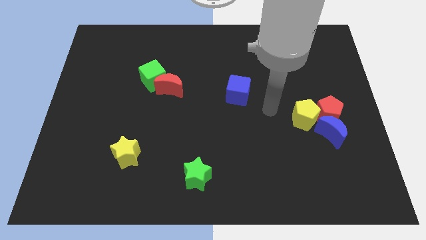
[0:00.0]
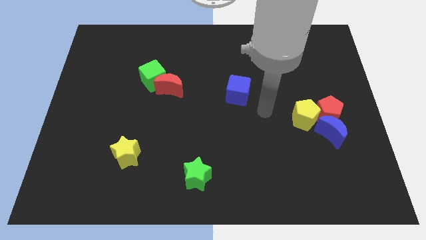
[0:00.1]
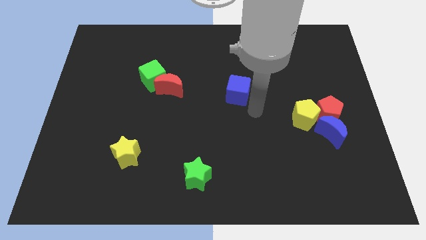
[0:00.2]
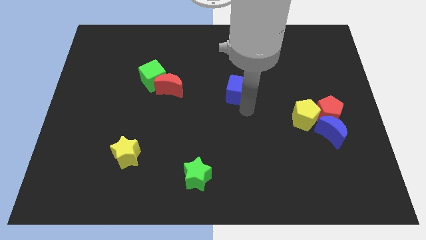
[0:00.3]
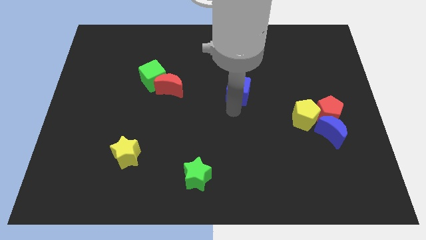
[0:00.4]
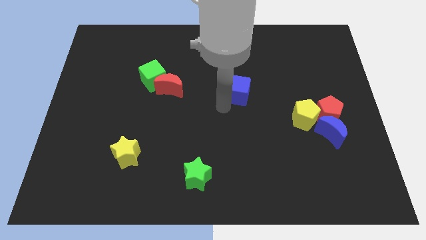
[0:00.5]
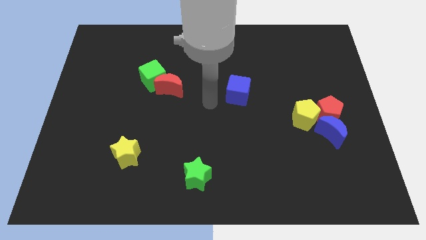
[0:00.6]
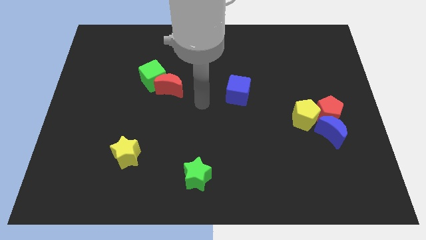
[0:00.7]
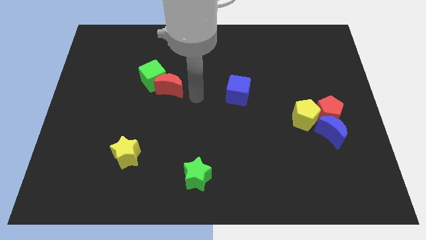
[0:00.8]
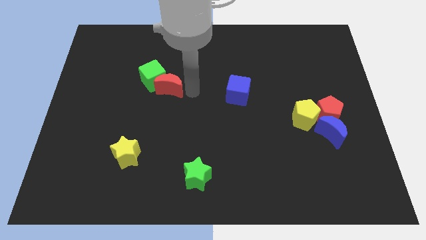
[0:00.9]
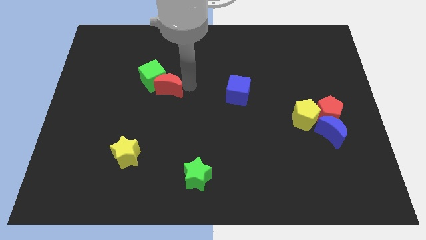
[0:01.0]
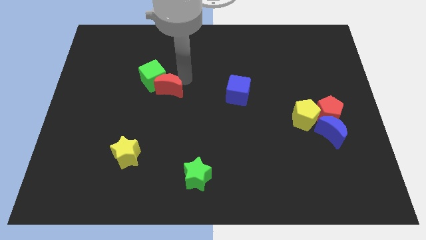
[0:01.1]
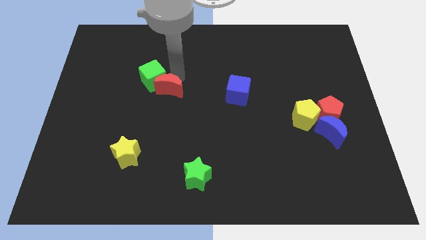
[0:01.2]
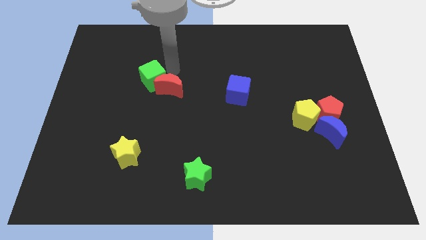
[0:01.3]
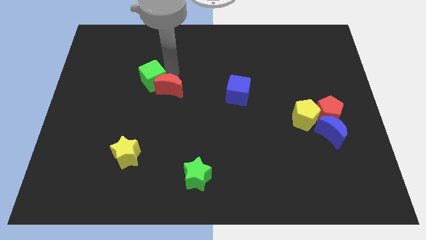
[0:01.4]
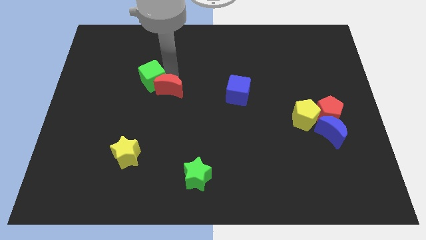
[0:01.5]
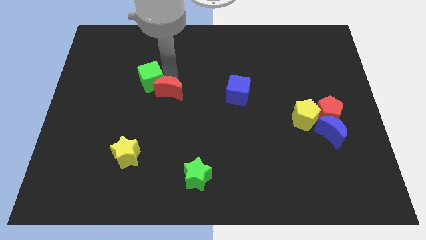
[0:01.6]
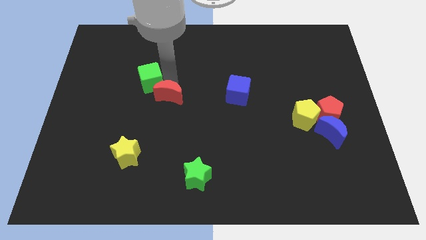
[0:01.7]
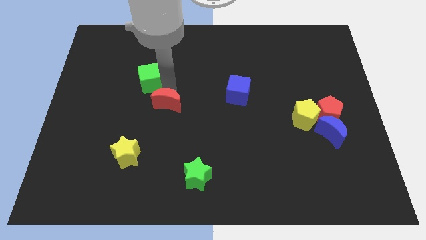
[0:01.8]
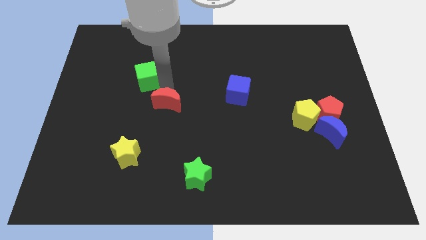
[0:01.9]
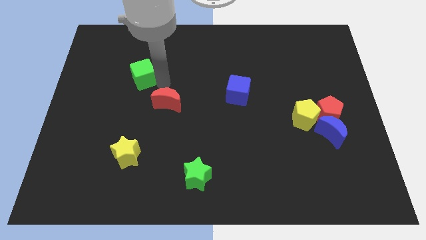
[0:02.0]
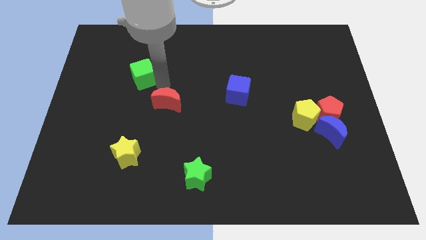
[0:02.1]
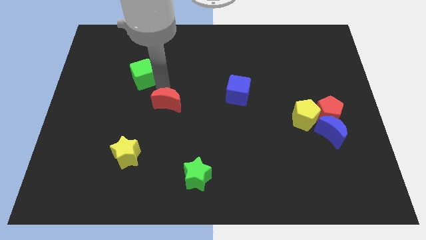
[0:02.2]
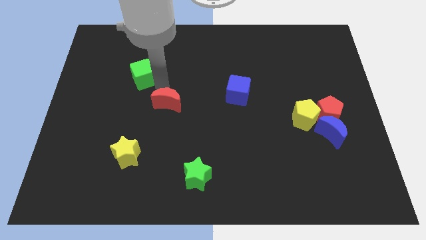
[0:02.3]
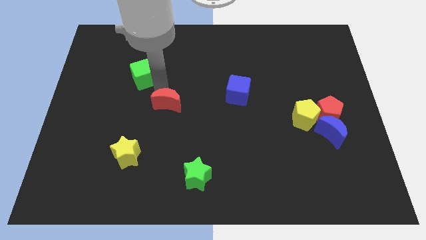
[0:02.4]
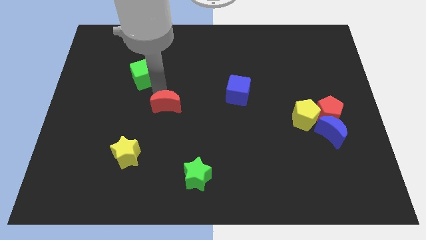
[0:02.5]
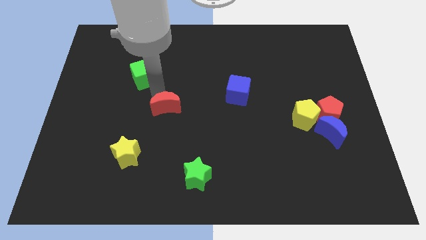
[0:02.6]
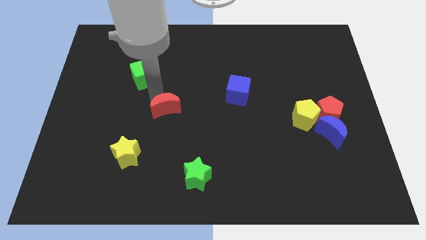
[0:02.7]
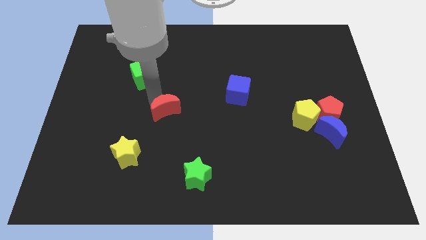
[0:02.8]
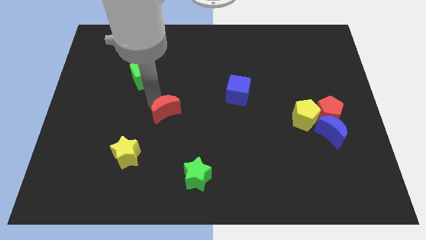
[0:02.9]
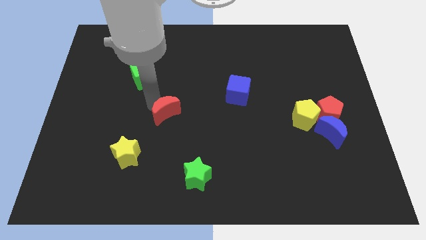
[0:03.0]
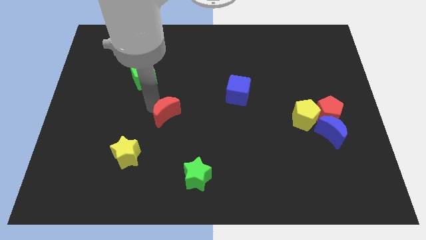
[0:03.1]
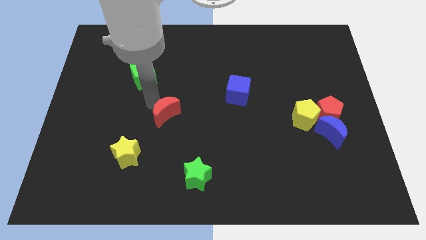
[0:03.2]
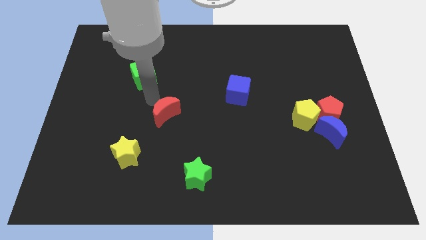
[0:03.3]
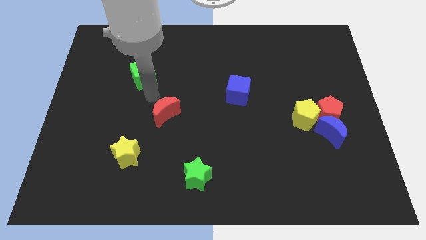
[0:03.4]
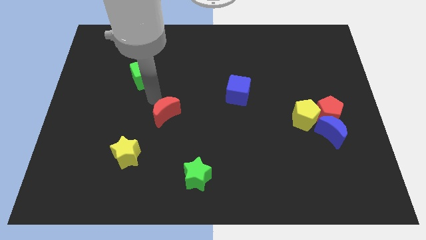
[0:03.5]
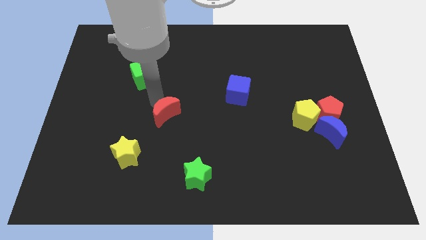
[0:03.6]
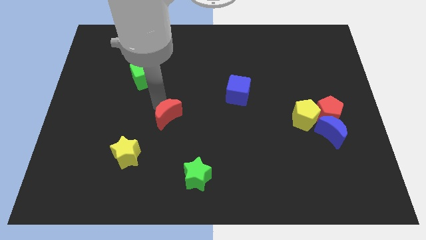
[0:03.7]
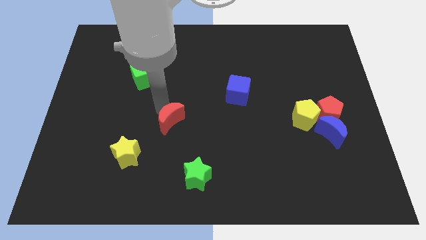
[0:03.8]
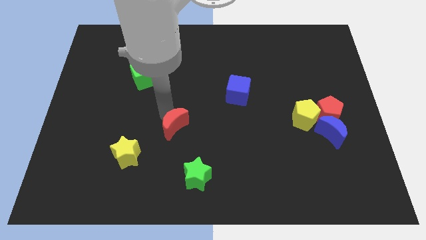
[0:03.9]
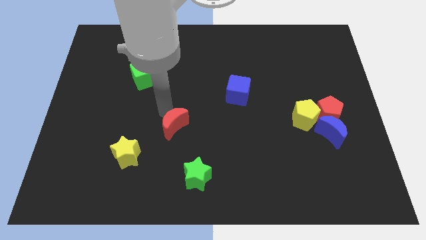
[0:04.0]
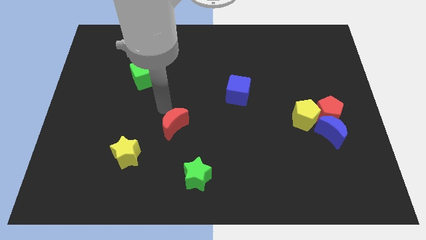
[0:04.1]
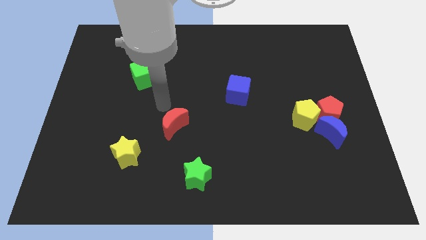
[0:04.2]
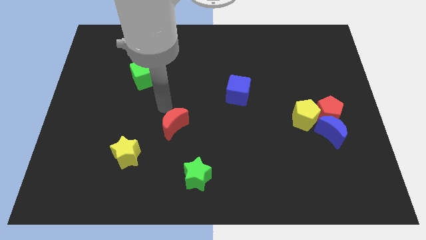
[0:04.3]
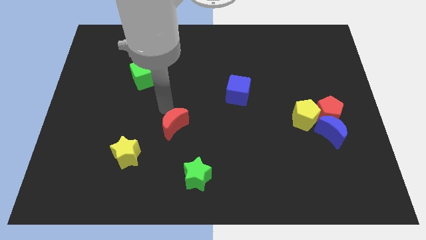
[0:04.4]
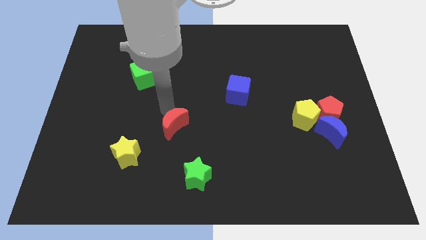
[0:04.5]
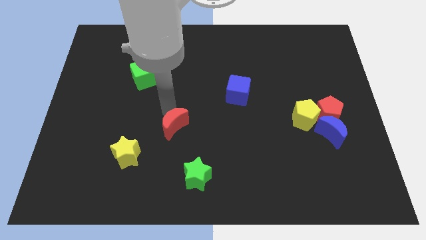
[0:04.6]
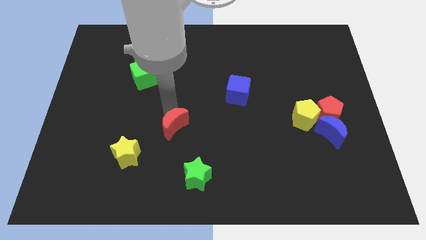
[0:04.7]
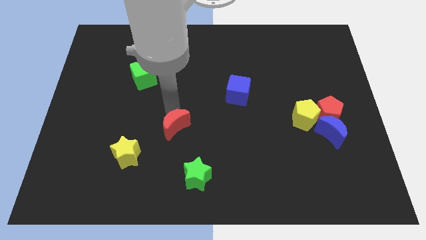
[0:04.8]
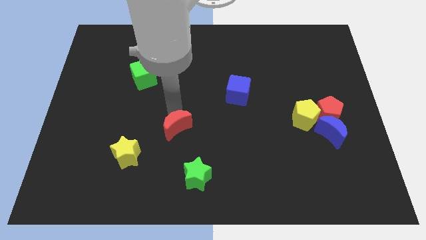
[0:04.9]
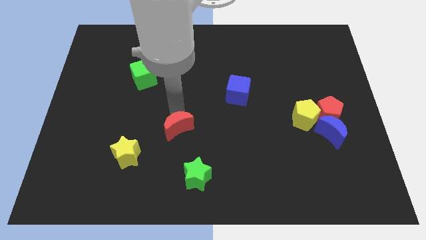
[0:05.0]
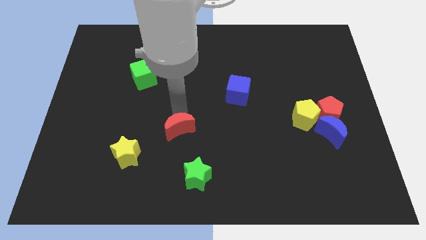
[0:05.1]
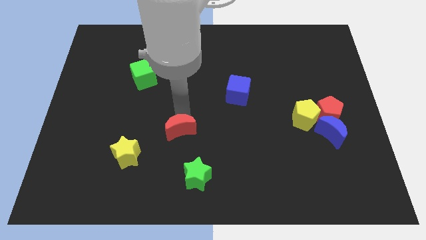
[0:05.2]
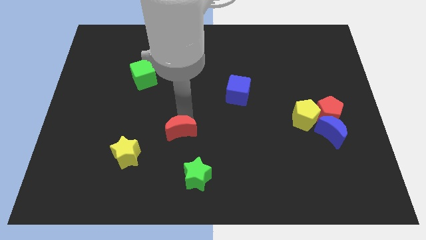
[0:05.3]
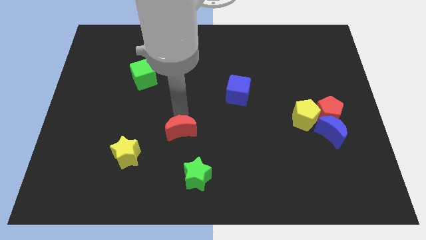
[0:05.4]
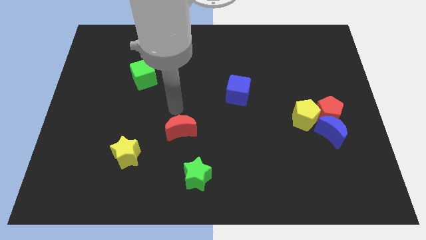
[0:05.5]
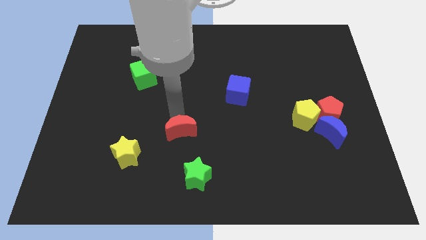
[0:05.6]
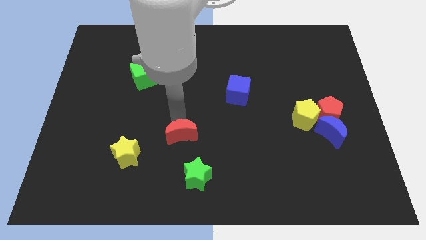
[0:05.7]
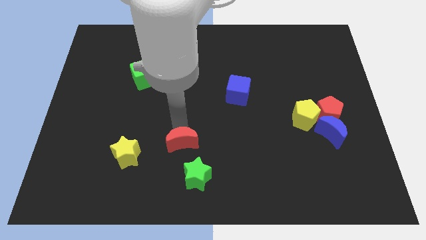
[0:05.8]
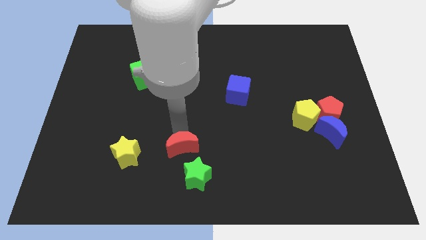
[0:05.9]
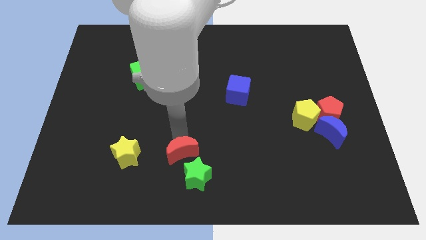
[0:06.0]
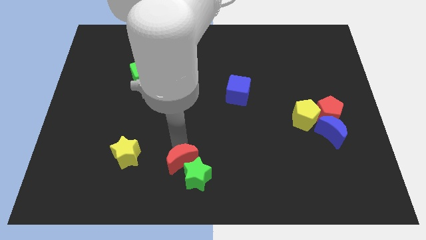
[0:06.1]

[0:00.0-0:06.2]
put the red moon to the green star
